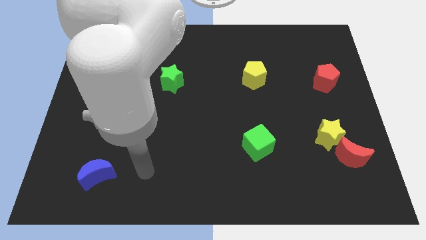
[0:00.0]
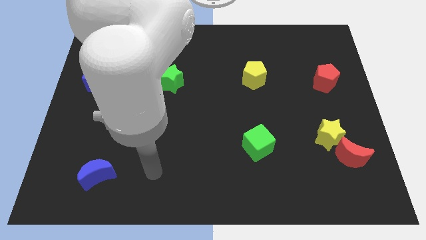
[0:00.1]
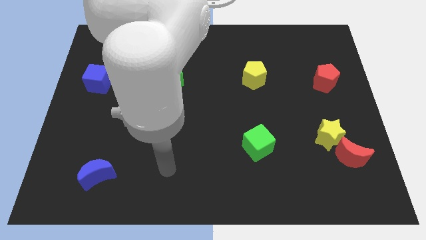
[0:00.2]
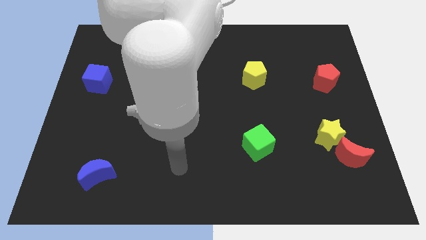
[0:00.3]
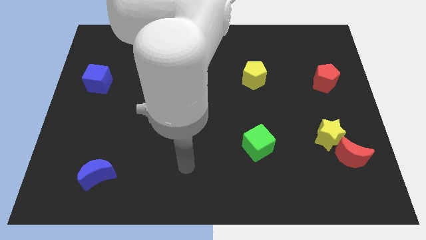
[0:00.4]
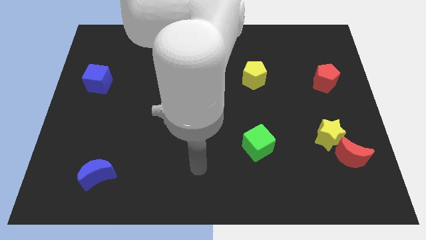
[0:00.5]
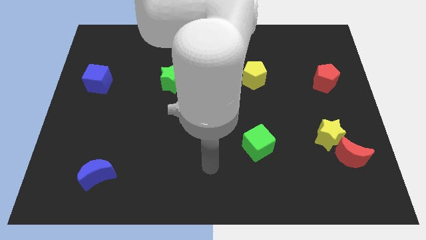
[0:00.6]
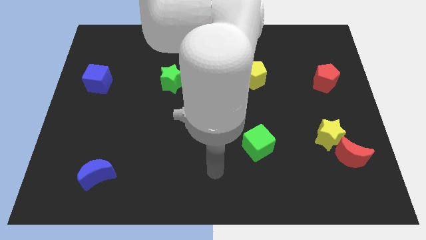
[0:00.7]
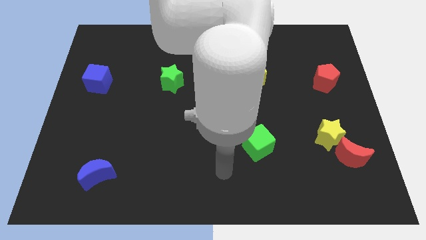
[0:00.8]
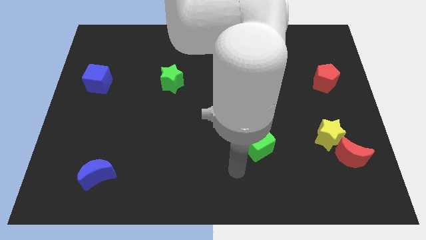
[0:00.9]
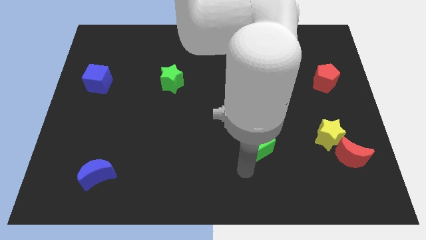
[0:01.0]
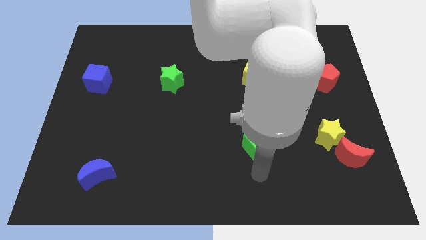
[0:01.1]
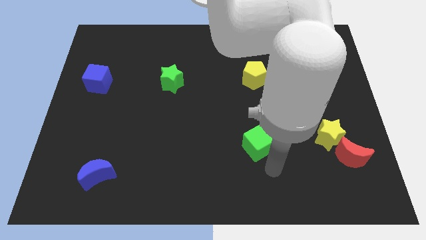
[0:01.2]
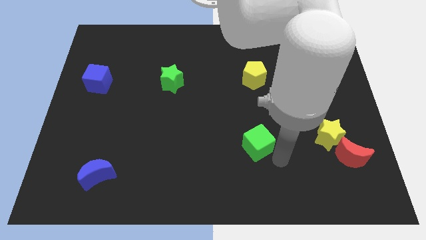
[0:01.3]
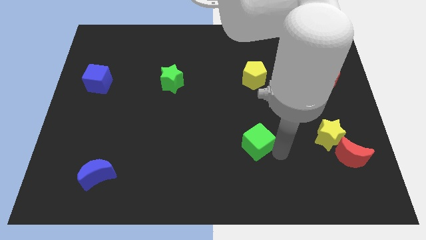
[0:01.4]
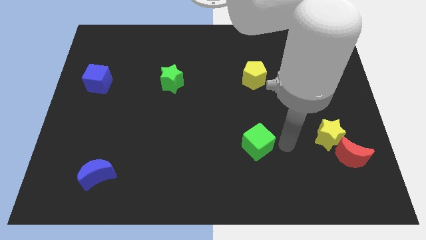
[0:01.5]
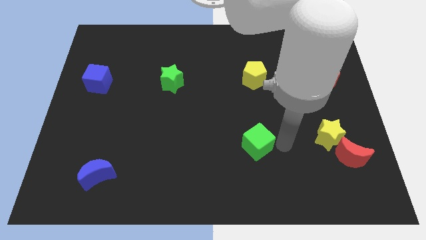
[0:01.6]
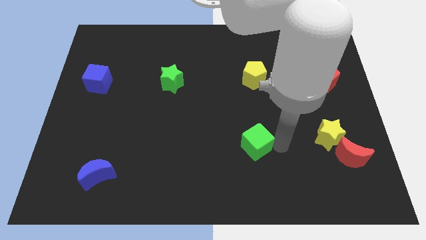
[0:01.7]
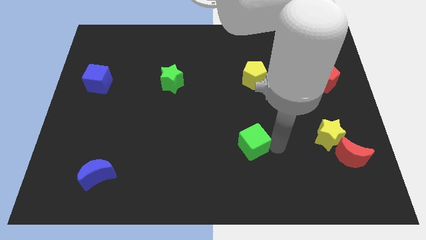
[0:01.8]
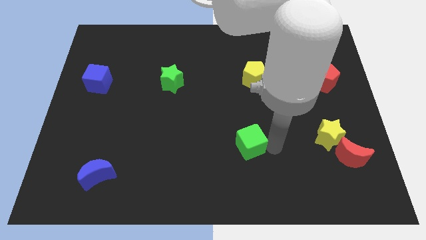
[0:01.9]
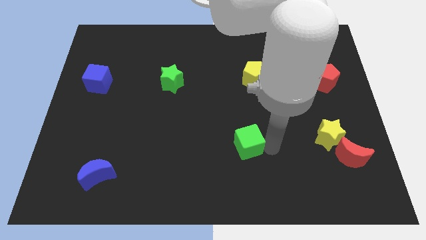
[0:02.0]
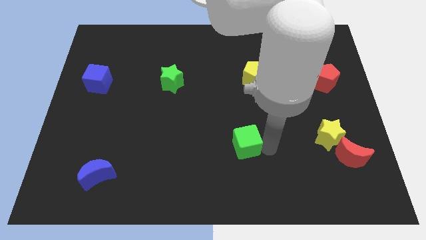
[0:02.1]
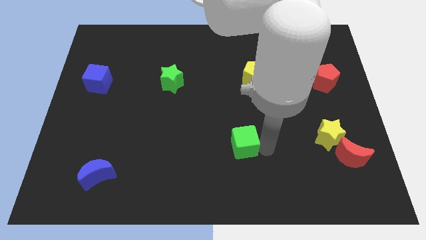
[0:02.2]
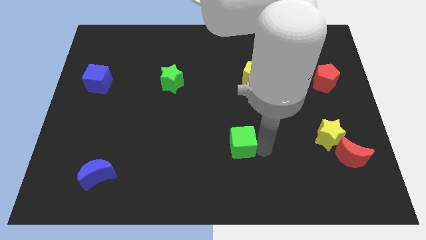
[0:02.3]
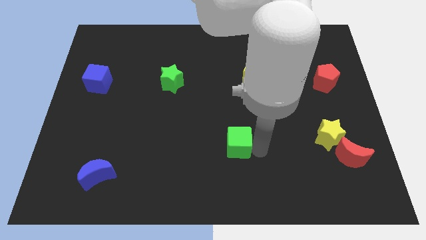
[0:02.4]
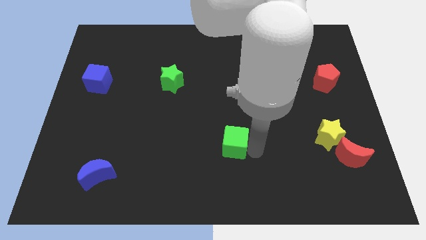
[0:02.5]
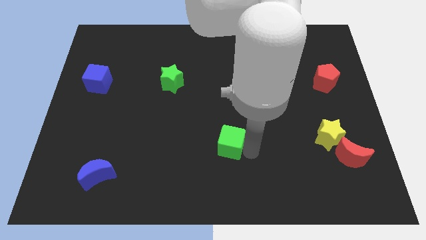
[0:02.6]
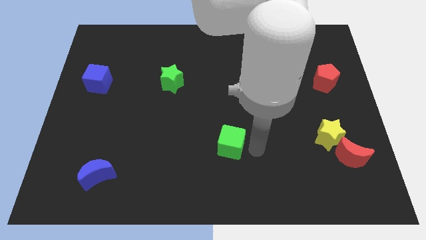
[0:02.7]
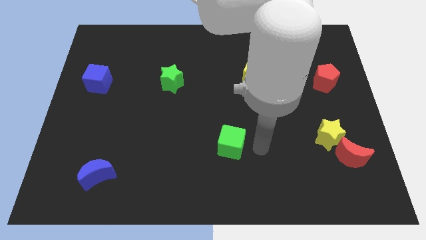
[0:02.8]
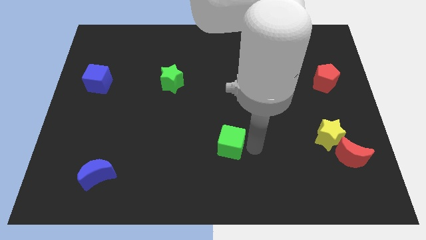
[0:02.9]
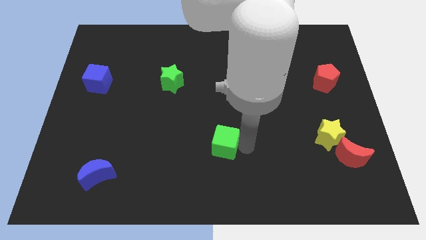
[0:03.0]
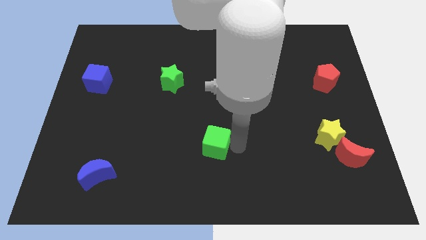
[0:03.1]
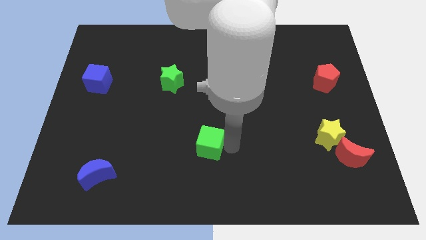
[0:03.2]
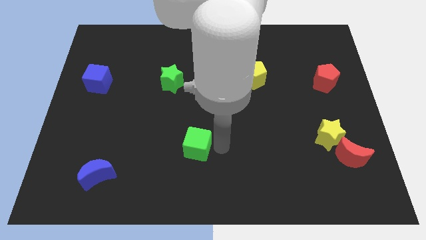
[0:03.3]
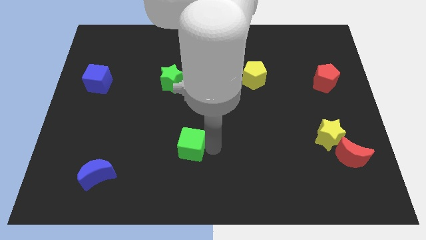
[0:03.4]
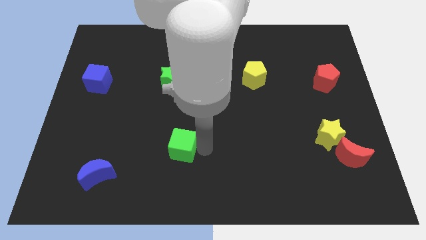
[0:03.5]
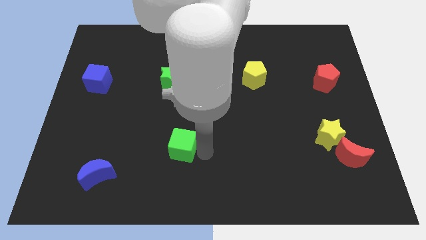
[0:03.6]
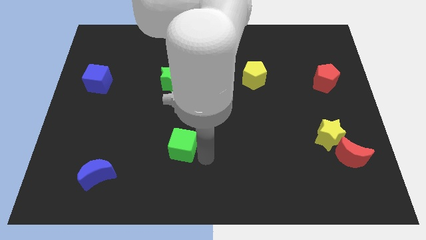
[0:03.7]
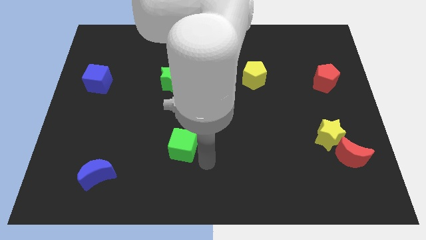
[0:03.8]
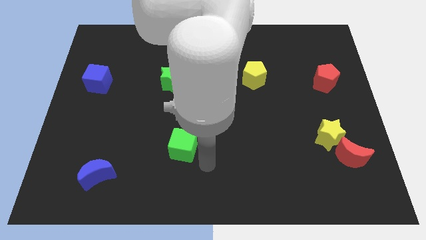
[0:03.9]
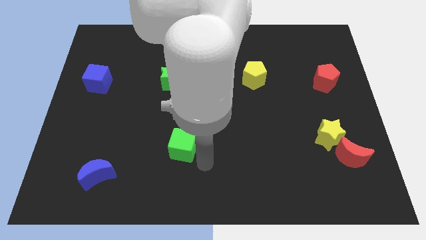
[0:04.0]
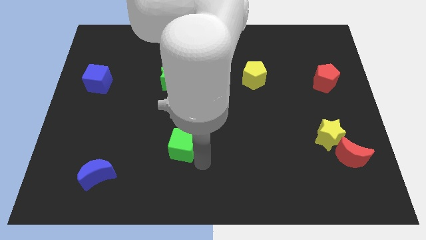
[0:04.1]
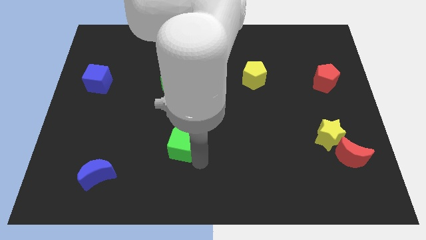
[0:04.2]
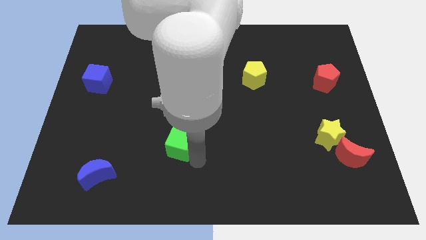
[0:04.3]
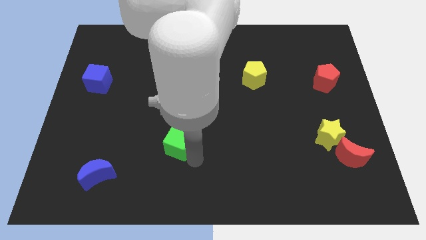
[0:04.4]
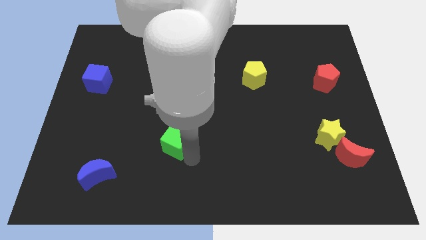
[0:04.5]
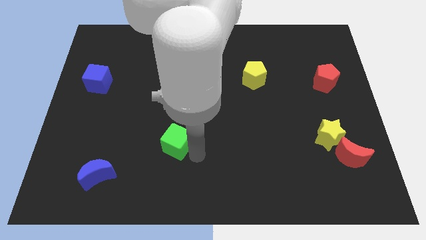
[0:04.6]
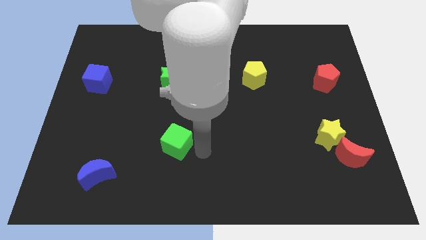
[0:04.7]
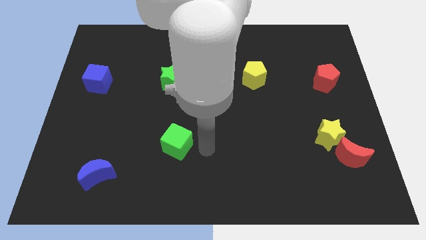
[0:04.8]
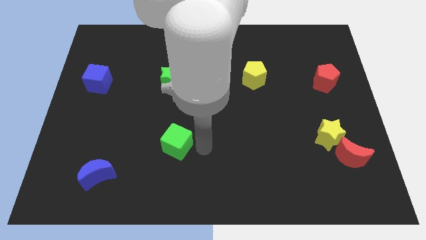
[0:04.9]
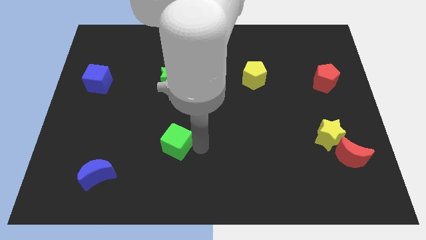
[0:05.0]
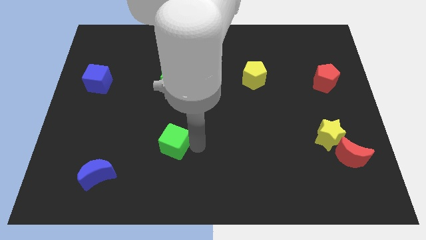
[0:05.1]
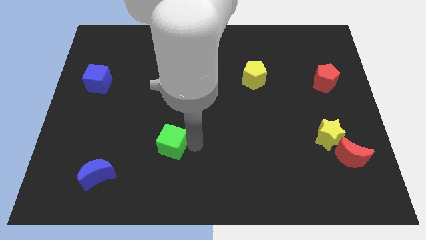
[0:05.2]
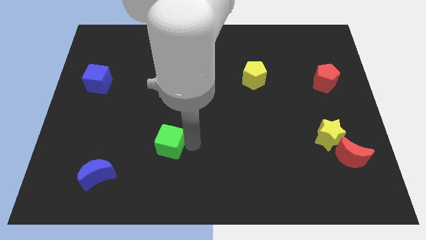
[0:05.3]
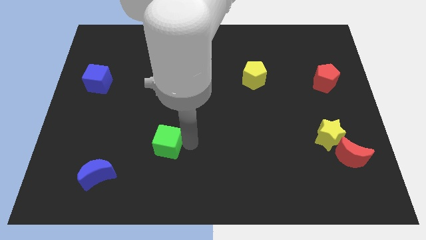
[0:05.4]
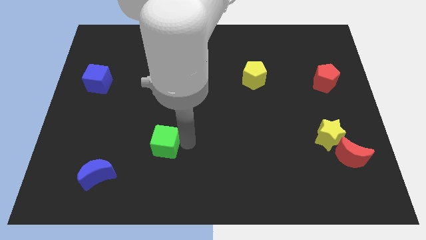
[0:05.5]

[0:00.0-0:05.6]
push the green cube to the left

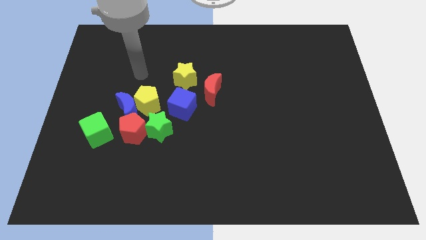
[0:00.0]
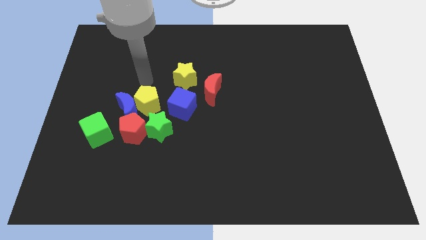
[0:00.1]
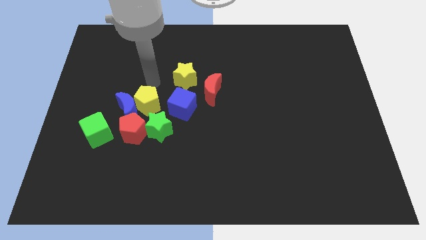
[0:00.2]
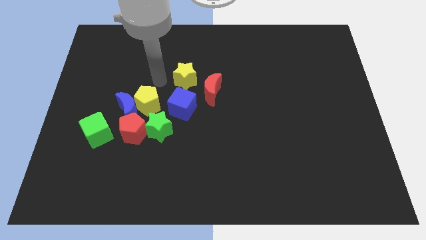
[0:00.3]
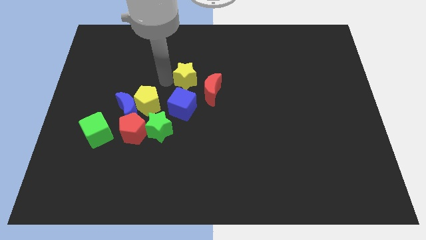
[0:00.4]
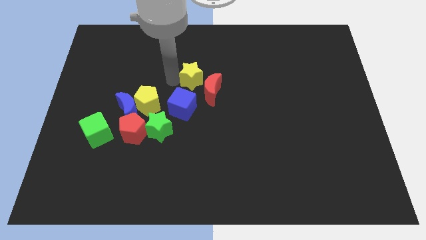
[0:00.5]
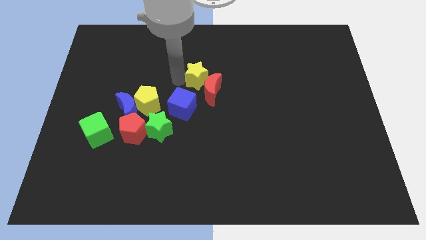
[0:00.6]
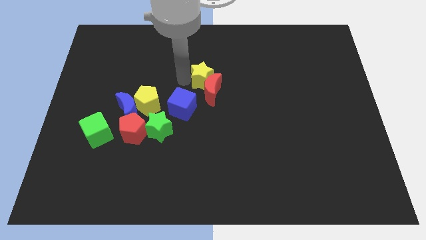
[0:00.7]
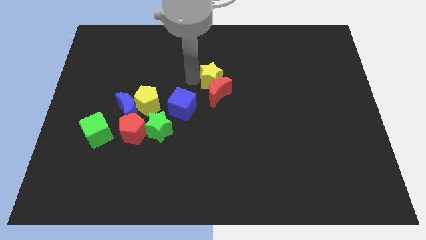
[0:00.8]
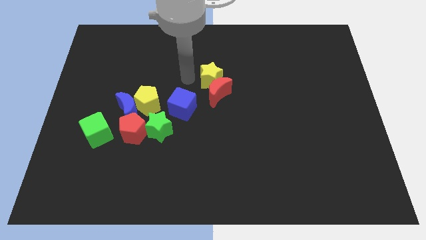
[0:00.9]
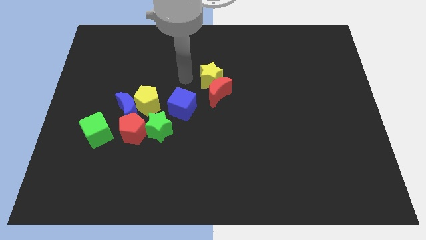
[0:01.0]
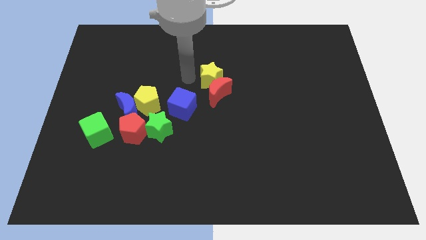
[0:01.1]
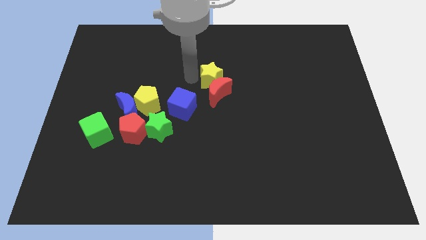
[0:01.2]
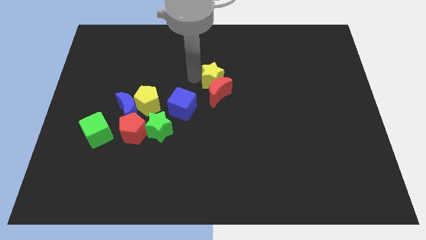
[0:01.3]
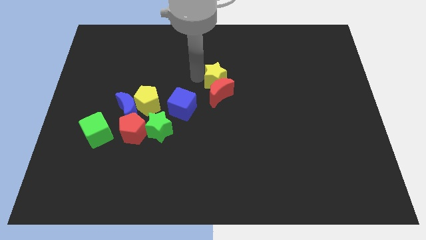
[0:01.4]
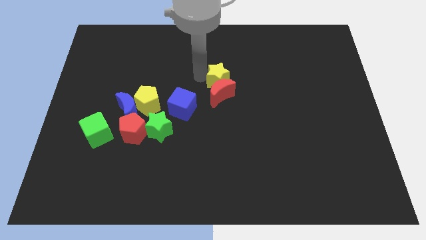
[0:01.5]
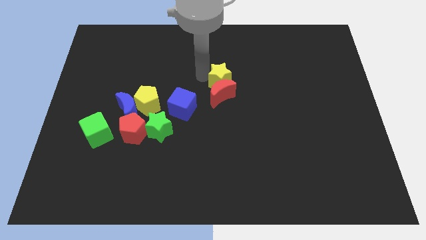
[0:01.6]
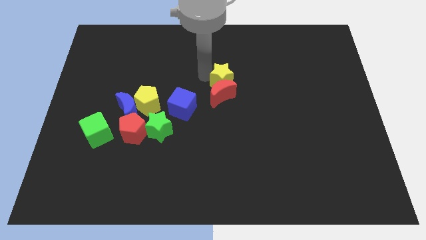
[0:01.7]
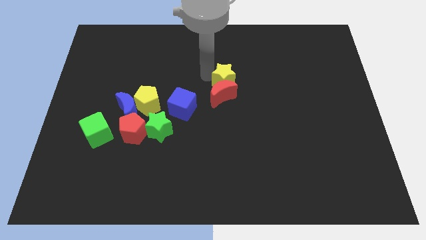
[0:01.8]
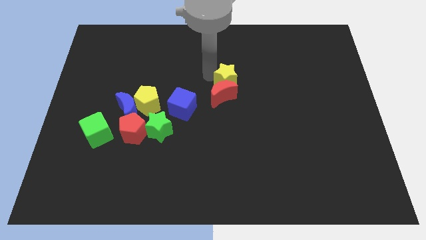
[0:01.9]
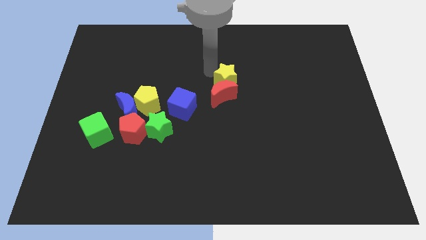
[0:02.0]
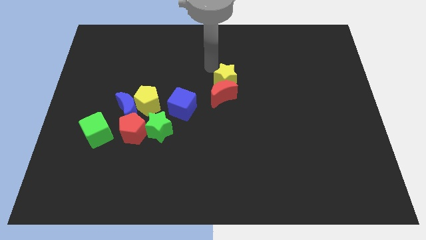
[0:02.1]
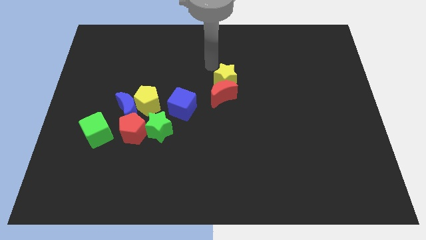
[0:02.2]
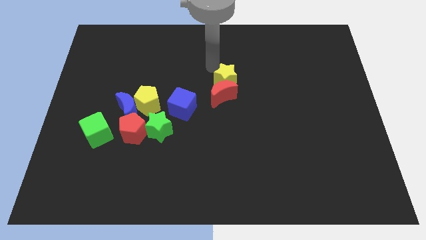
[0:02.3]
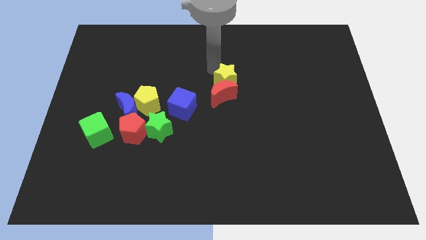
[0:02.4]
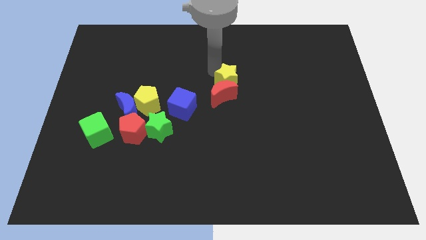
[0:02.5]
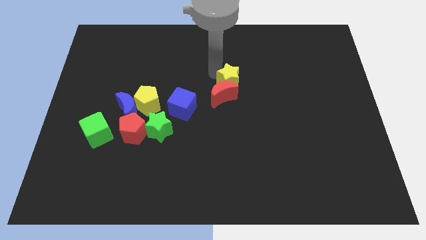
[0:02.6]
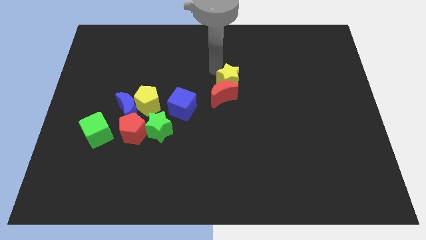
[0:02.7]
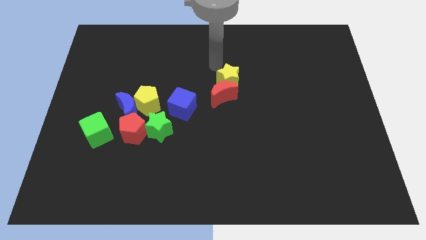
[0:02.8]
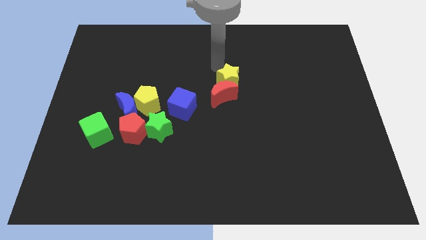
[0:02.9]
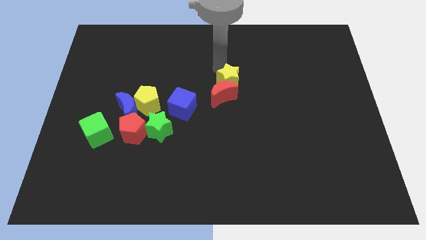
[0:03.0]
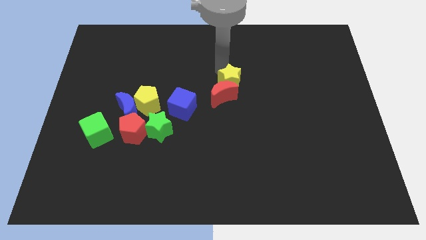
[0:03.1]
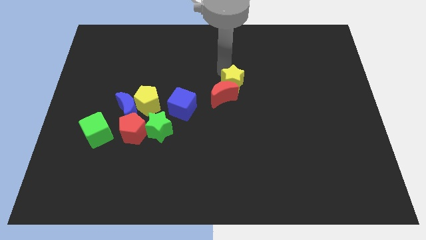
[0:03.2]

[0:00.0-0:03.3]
slide the yellow star somewhat down and to the right
